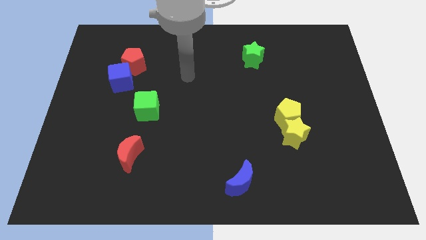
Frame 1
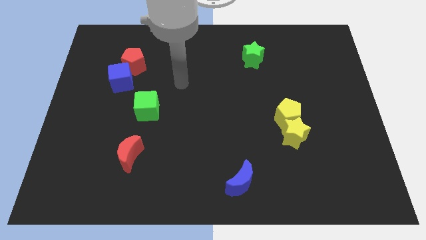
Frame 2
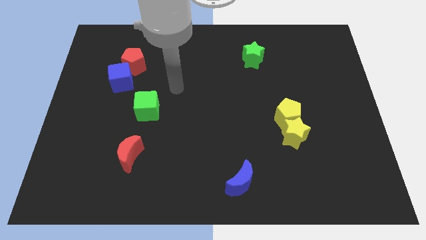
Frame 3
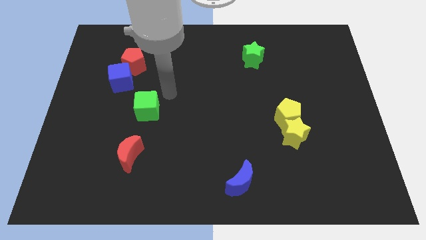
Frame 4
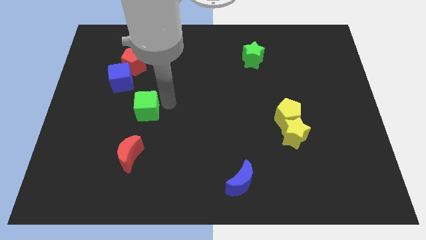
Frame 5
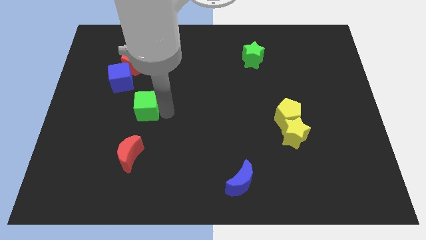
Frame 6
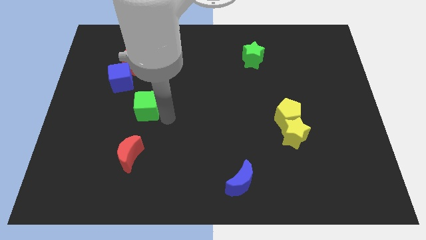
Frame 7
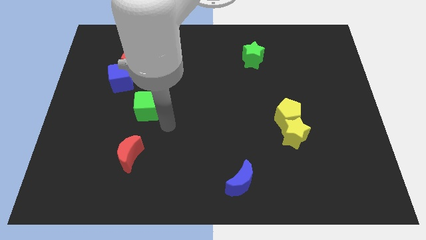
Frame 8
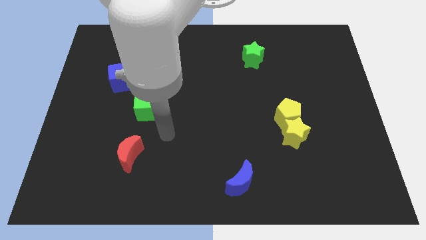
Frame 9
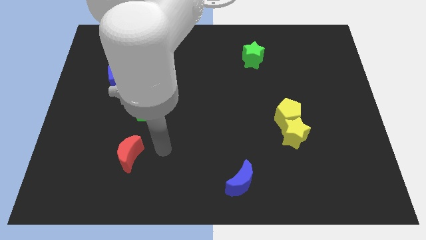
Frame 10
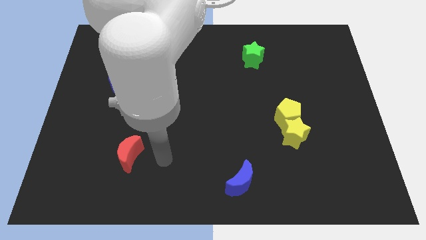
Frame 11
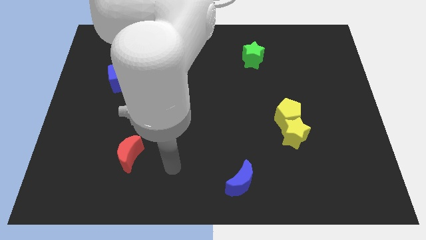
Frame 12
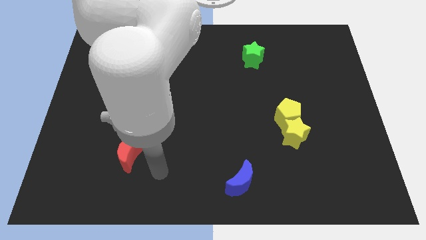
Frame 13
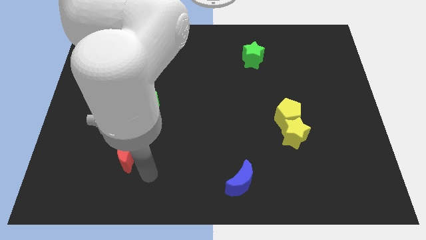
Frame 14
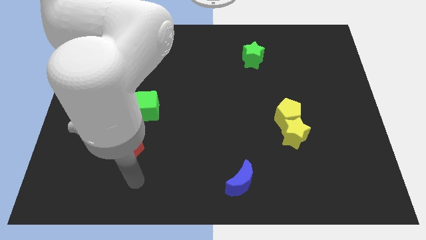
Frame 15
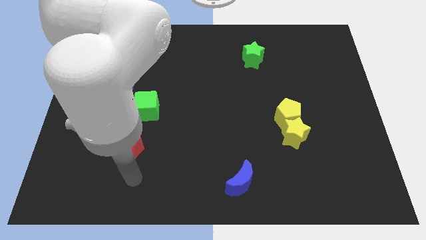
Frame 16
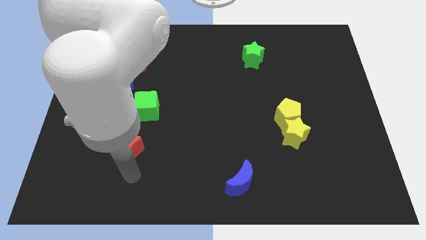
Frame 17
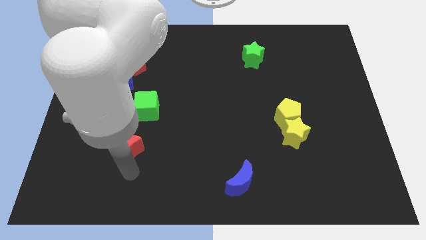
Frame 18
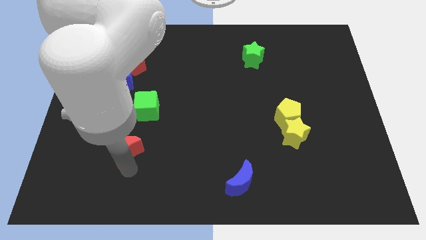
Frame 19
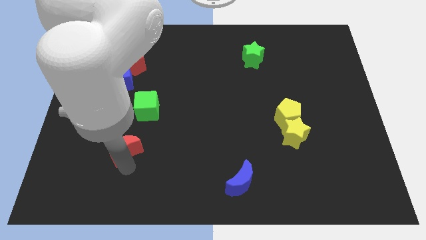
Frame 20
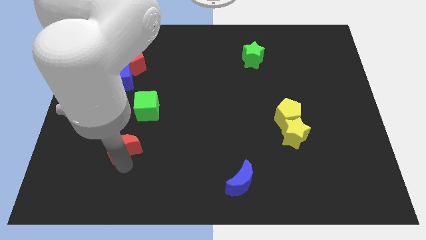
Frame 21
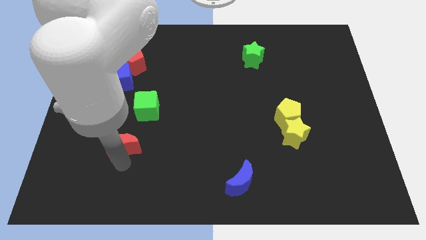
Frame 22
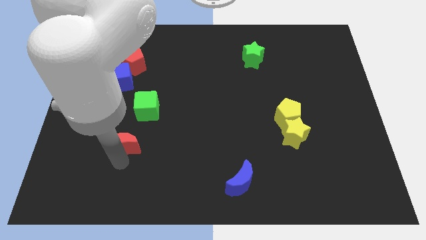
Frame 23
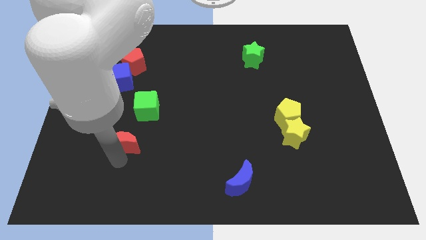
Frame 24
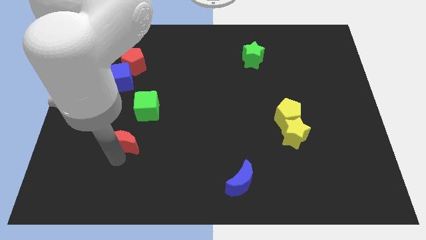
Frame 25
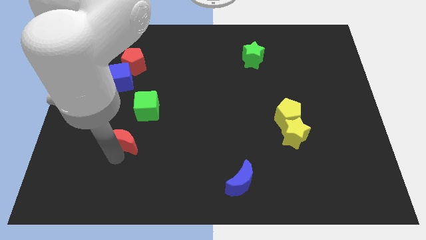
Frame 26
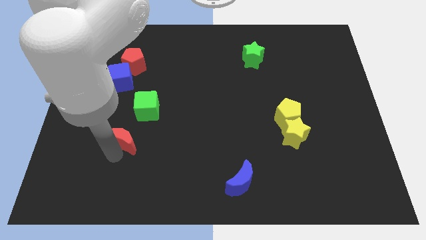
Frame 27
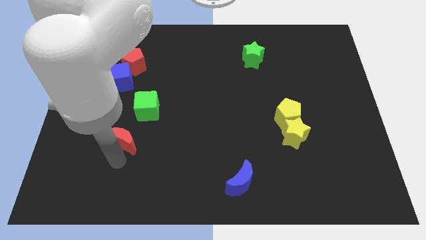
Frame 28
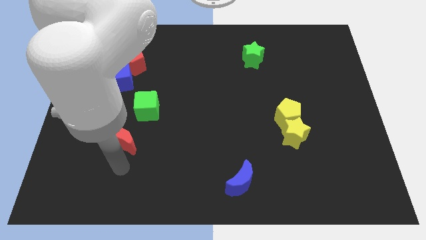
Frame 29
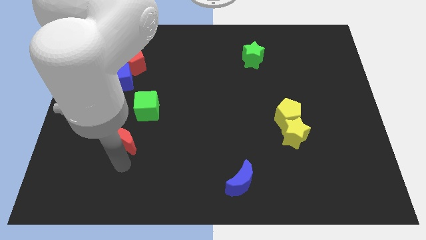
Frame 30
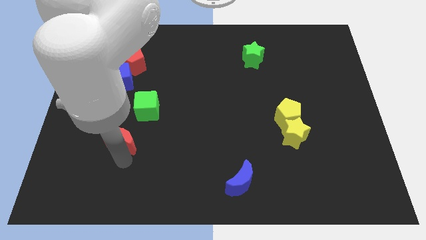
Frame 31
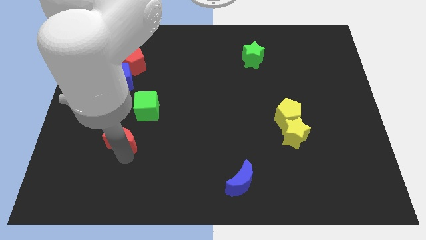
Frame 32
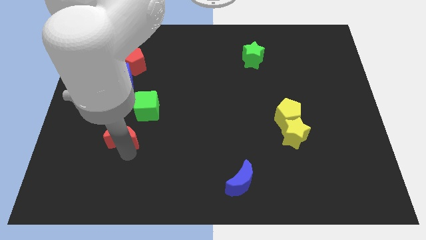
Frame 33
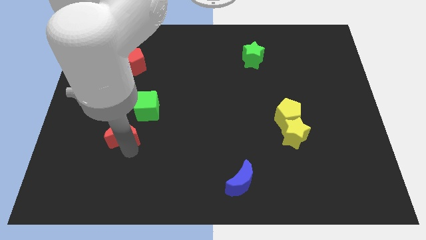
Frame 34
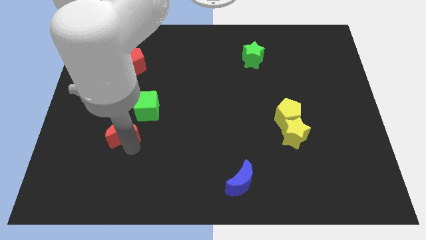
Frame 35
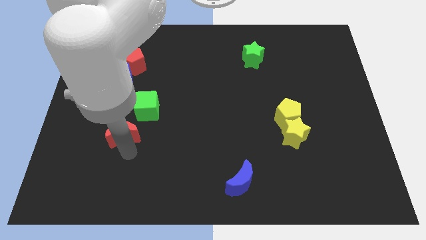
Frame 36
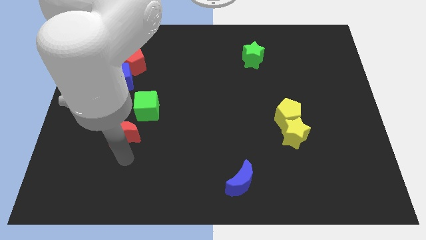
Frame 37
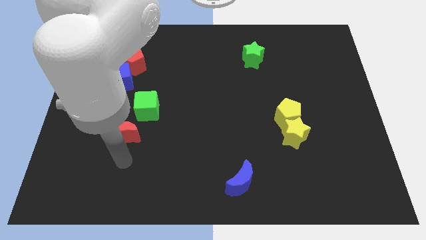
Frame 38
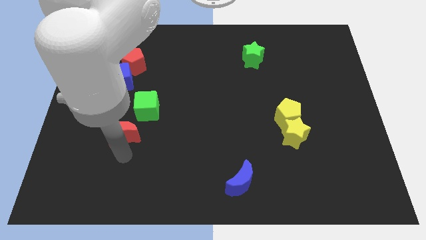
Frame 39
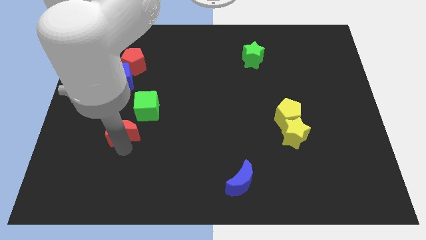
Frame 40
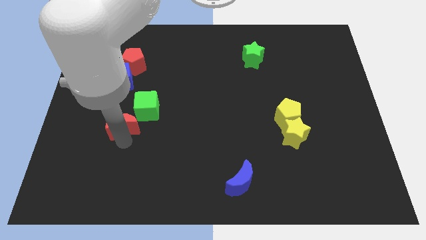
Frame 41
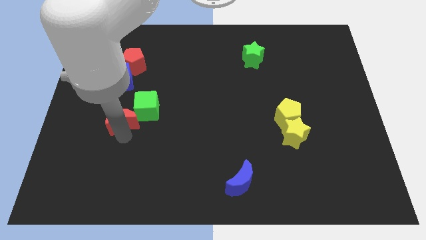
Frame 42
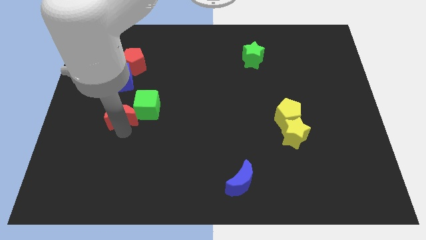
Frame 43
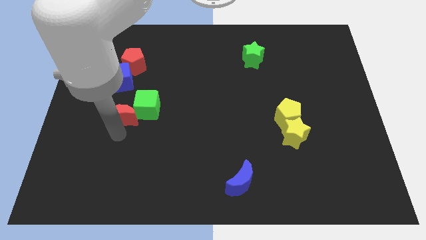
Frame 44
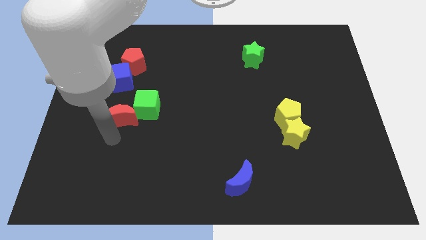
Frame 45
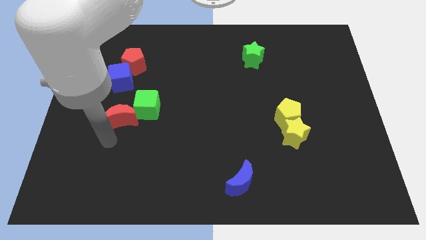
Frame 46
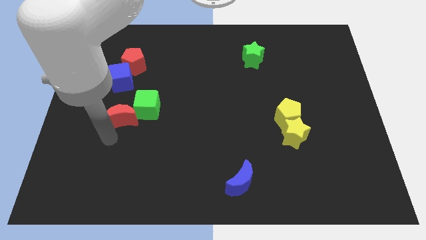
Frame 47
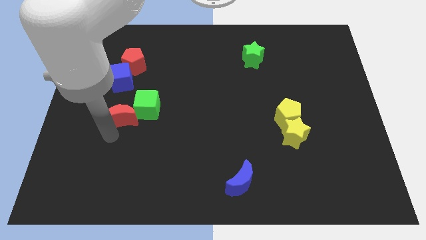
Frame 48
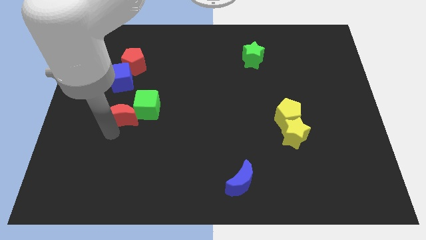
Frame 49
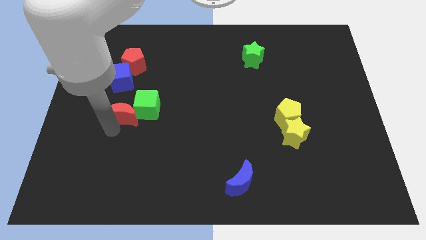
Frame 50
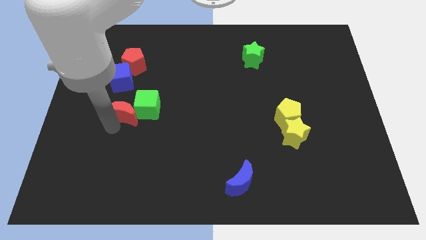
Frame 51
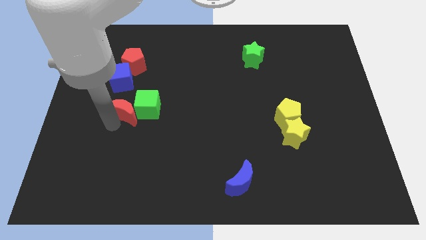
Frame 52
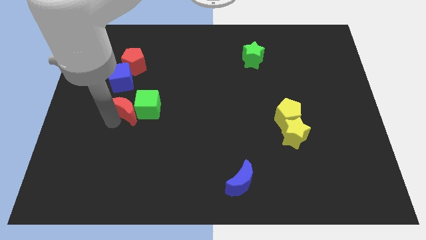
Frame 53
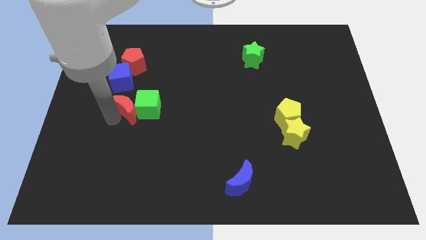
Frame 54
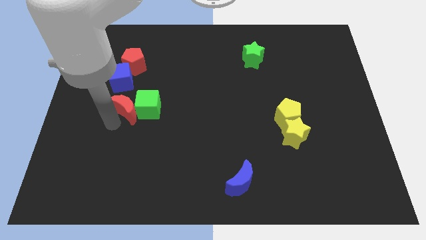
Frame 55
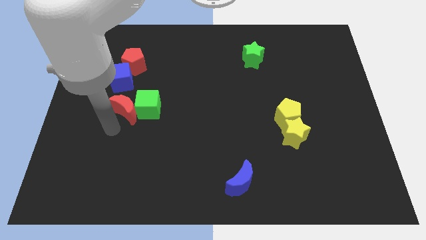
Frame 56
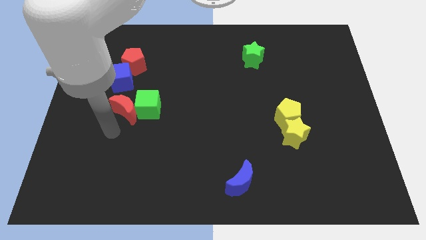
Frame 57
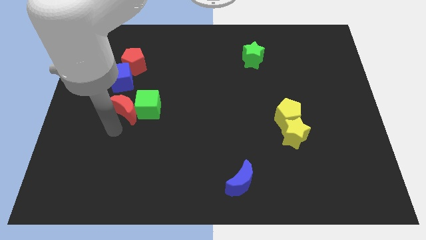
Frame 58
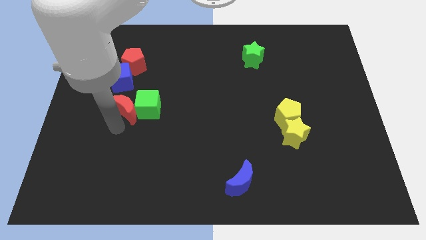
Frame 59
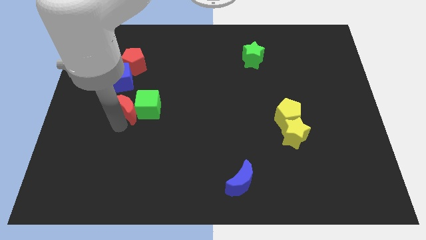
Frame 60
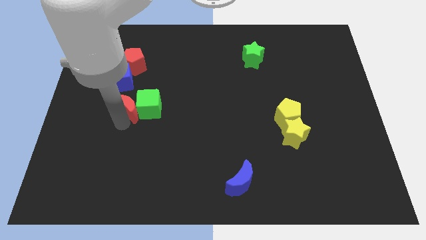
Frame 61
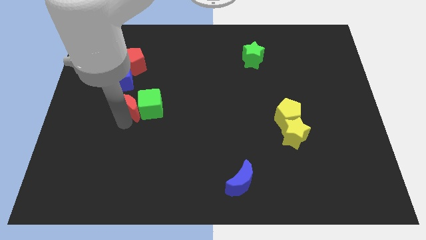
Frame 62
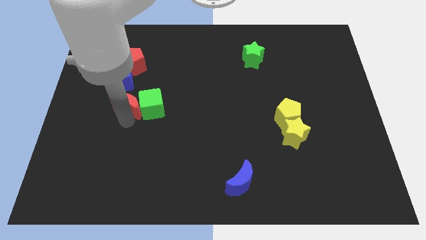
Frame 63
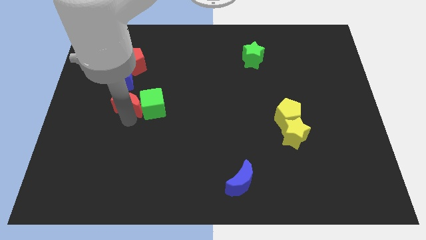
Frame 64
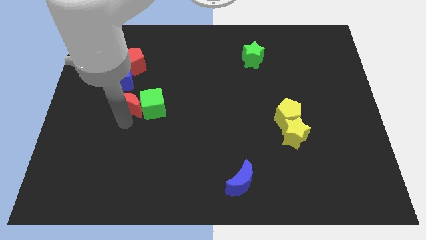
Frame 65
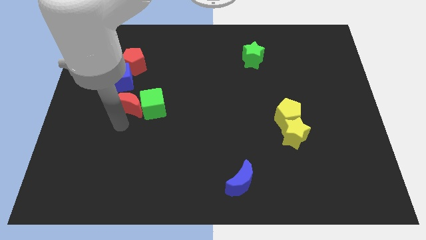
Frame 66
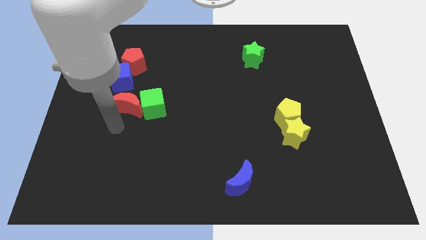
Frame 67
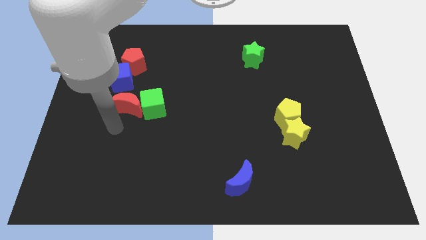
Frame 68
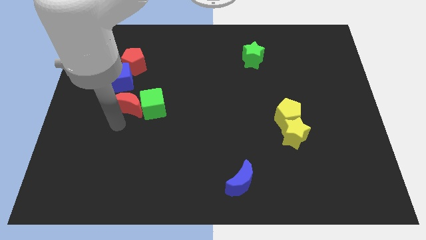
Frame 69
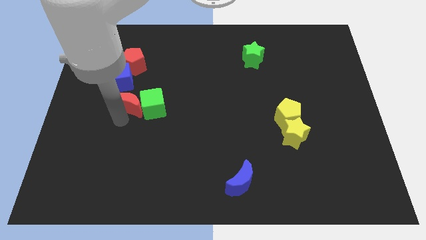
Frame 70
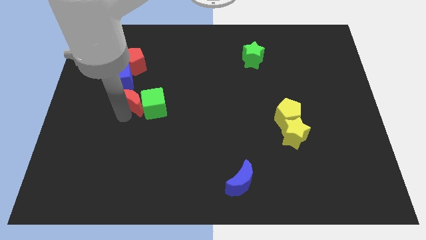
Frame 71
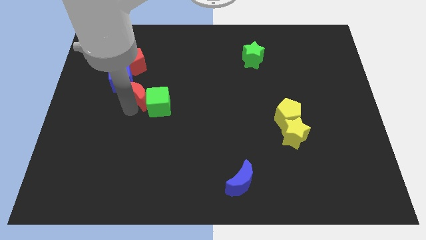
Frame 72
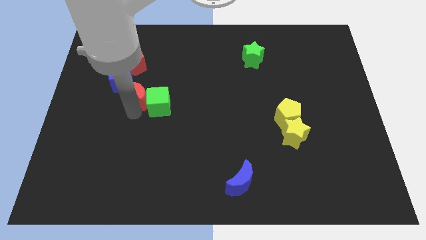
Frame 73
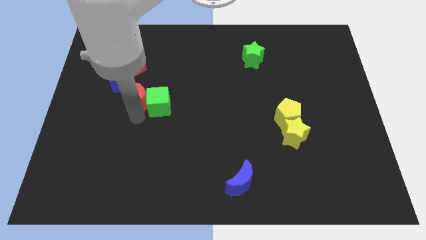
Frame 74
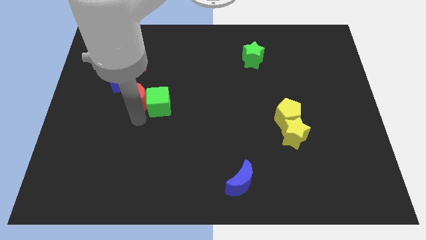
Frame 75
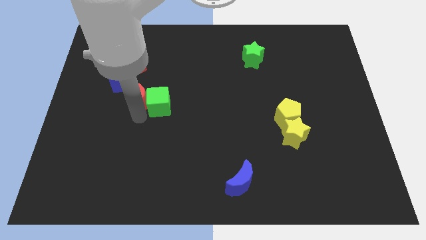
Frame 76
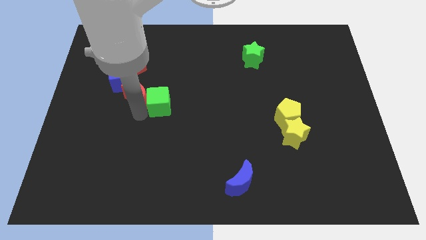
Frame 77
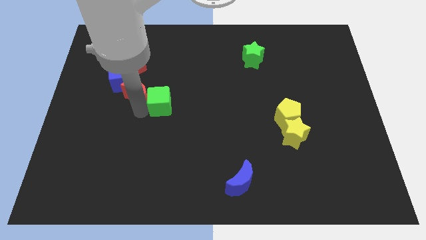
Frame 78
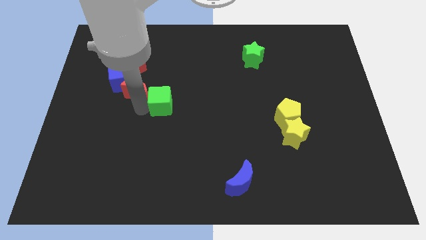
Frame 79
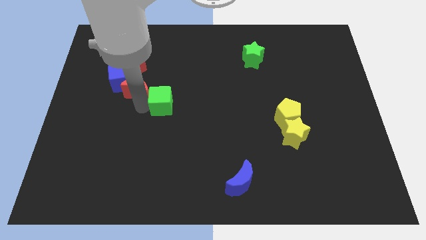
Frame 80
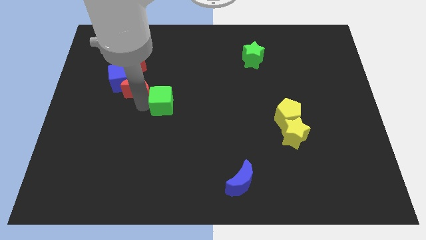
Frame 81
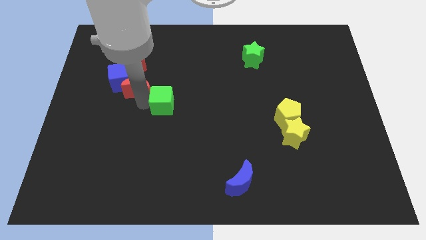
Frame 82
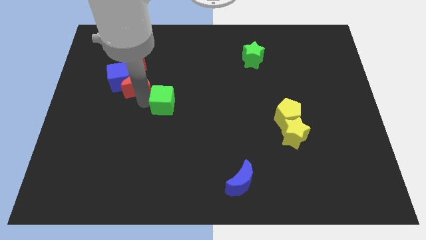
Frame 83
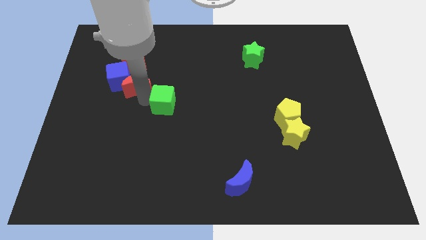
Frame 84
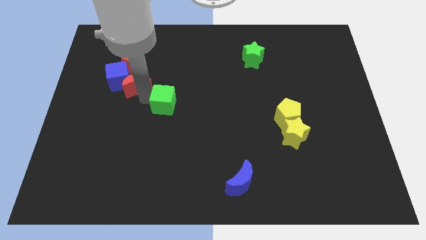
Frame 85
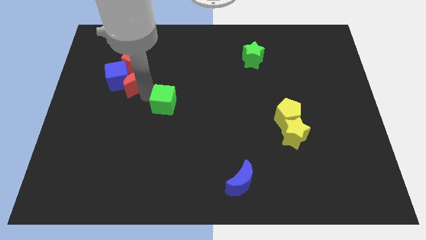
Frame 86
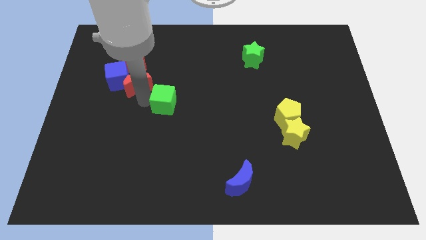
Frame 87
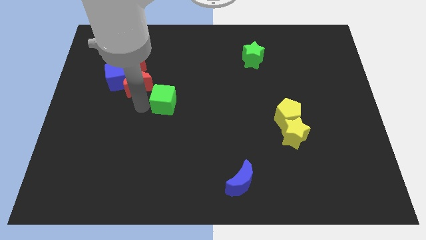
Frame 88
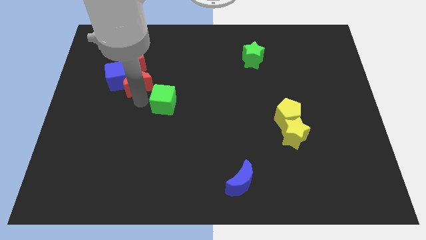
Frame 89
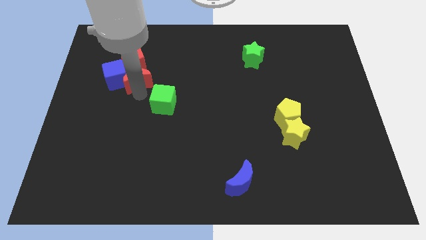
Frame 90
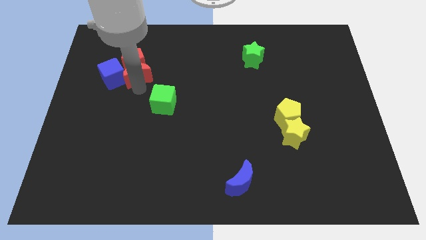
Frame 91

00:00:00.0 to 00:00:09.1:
put the red moon towards the red pentagon
